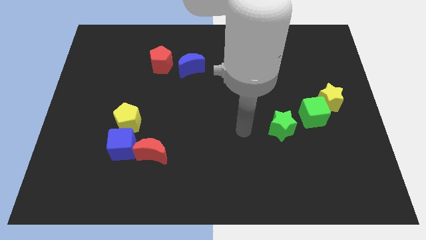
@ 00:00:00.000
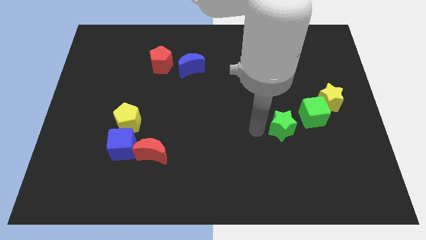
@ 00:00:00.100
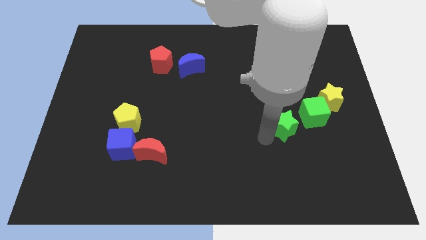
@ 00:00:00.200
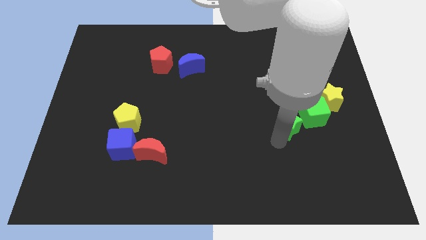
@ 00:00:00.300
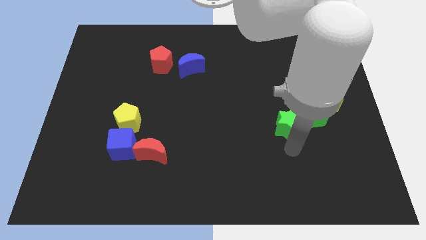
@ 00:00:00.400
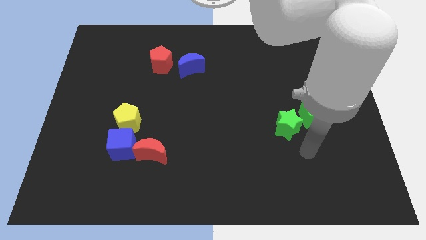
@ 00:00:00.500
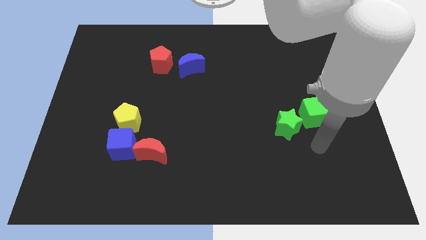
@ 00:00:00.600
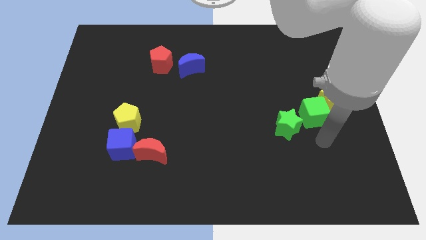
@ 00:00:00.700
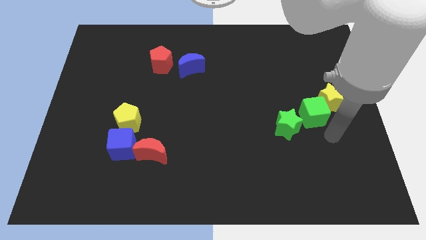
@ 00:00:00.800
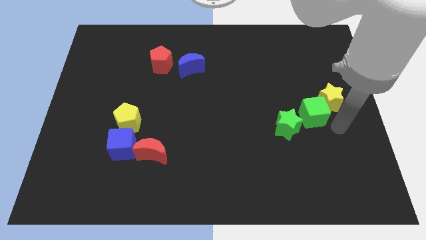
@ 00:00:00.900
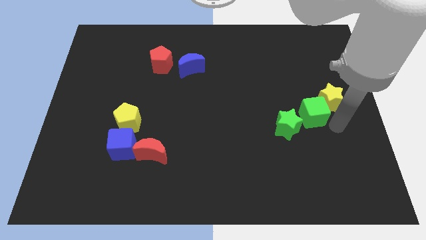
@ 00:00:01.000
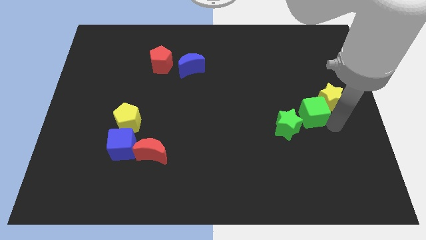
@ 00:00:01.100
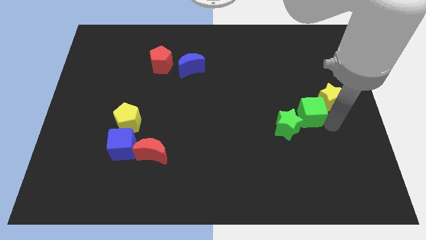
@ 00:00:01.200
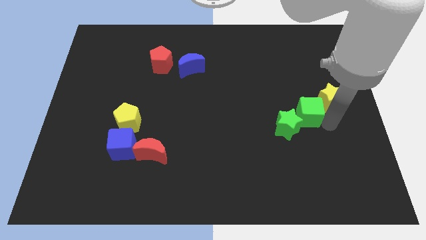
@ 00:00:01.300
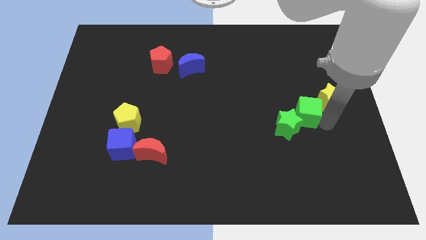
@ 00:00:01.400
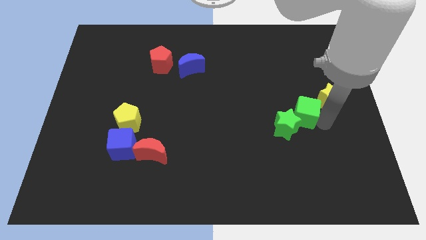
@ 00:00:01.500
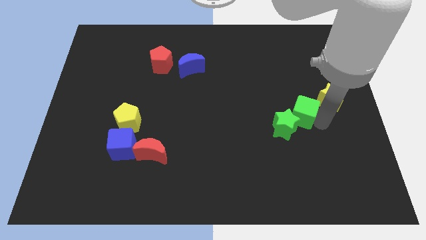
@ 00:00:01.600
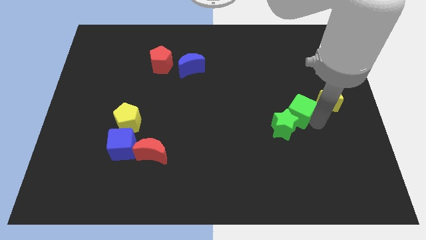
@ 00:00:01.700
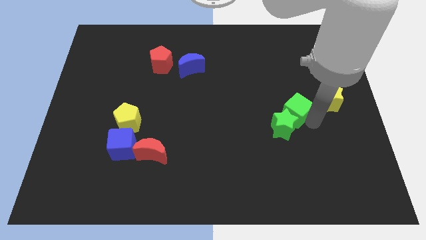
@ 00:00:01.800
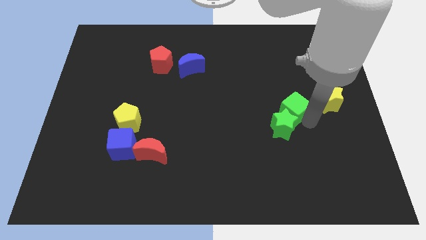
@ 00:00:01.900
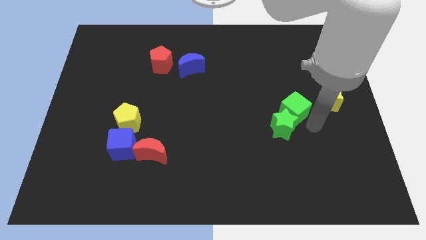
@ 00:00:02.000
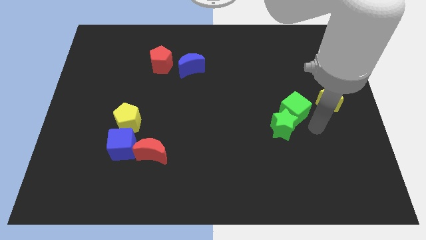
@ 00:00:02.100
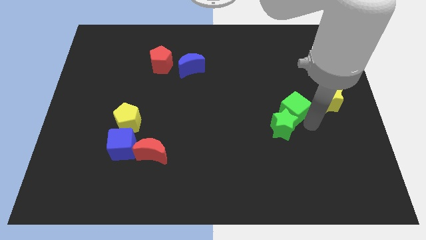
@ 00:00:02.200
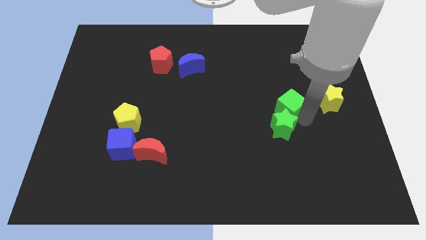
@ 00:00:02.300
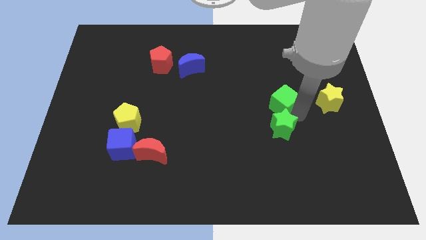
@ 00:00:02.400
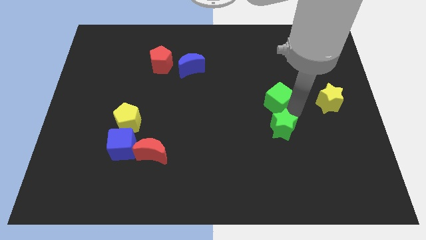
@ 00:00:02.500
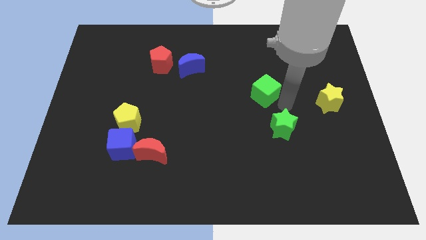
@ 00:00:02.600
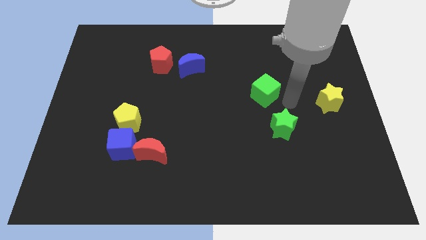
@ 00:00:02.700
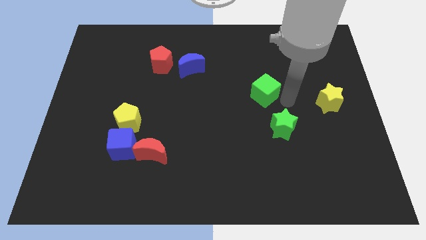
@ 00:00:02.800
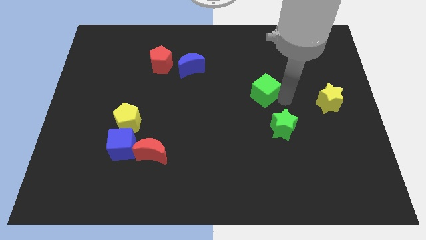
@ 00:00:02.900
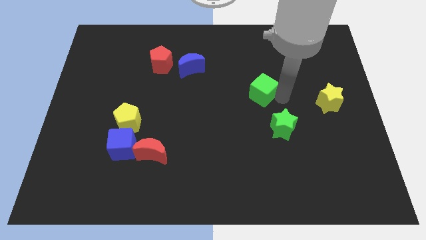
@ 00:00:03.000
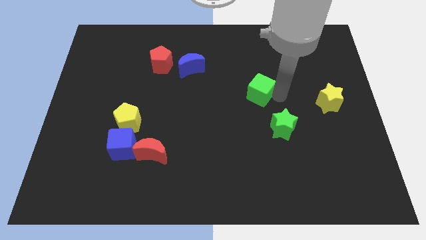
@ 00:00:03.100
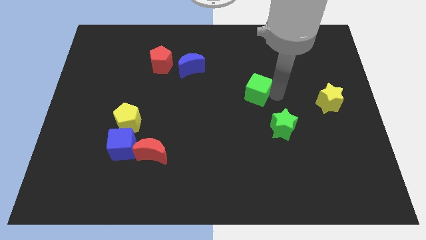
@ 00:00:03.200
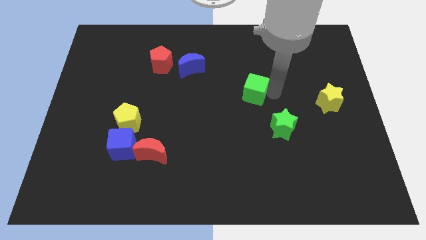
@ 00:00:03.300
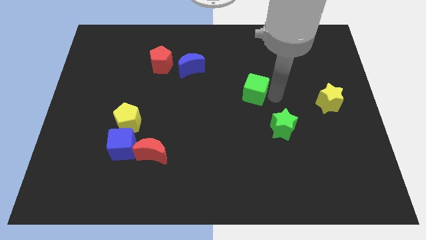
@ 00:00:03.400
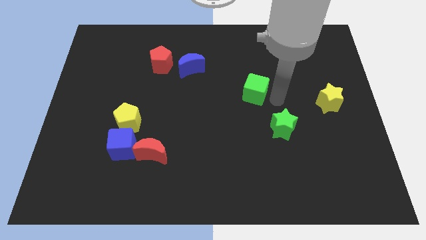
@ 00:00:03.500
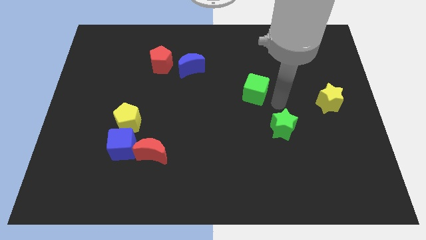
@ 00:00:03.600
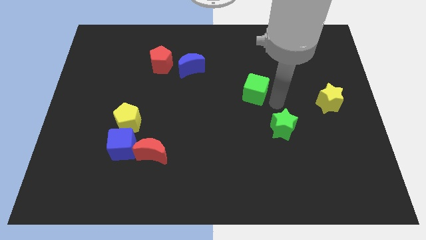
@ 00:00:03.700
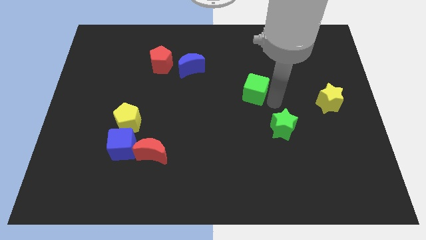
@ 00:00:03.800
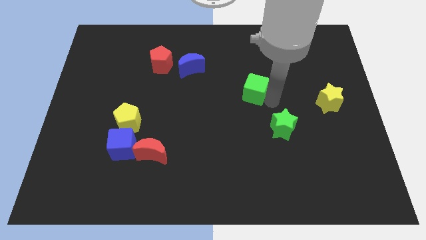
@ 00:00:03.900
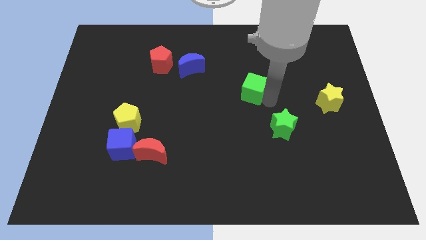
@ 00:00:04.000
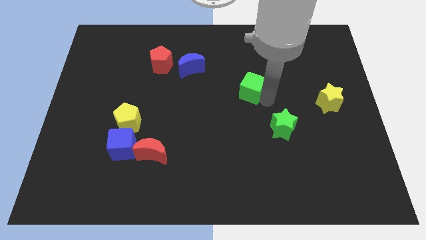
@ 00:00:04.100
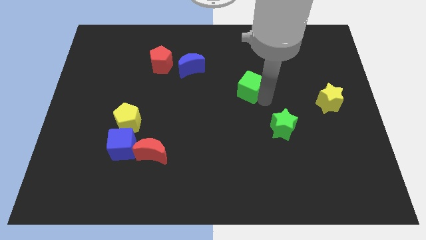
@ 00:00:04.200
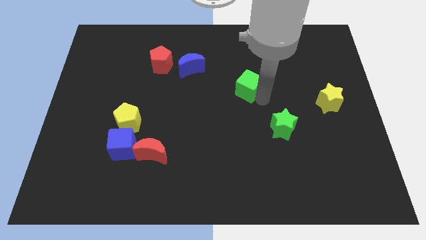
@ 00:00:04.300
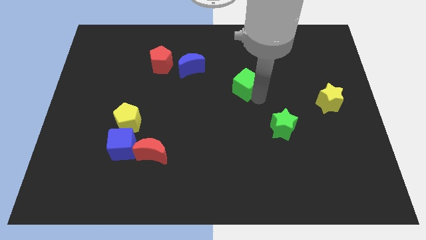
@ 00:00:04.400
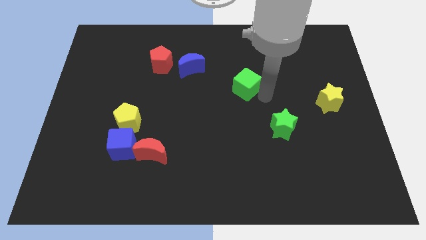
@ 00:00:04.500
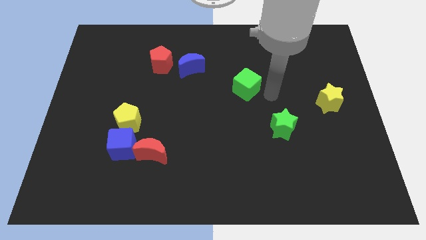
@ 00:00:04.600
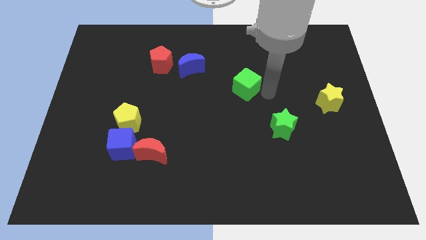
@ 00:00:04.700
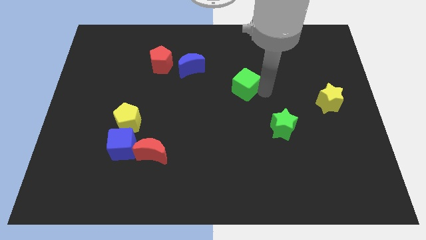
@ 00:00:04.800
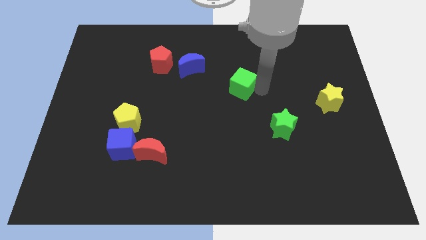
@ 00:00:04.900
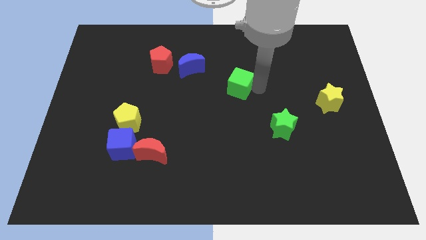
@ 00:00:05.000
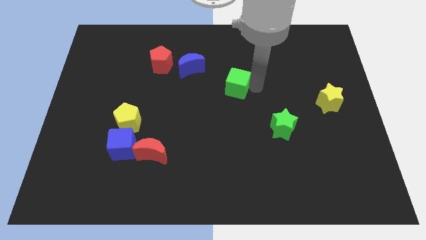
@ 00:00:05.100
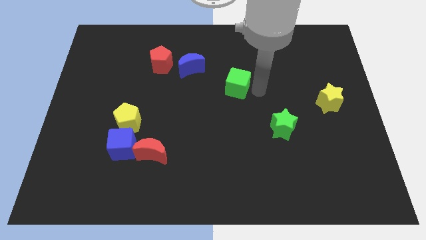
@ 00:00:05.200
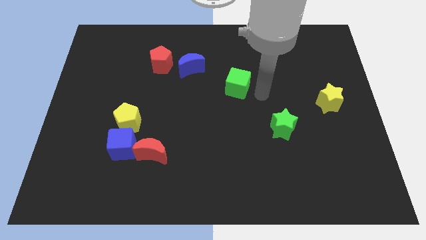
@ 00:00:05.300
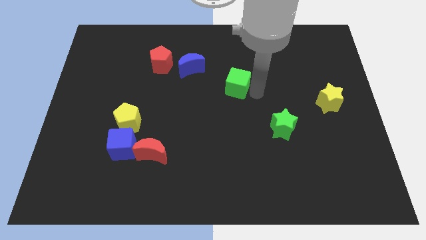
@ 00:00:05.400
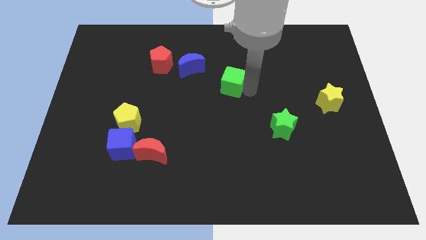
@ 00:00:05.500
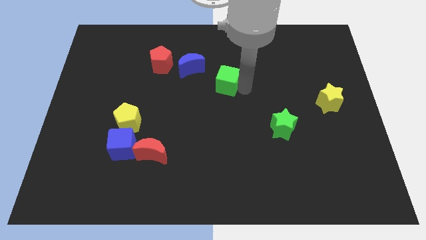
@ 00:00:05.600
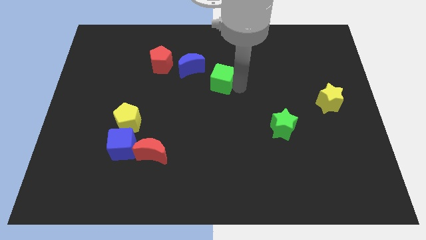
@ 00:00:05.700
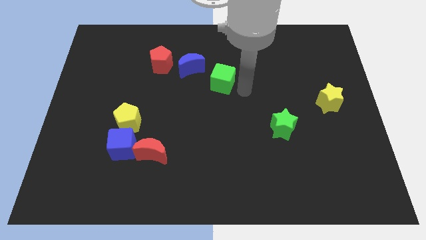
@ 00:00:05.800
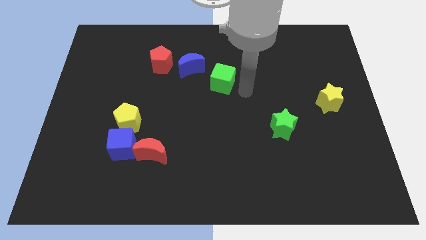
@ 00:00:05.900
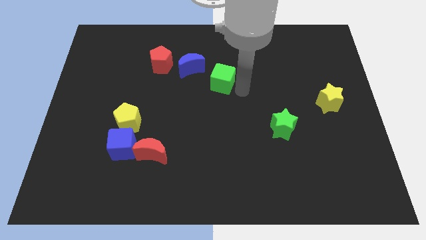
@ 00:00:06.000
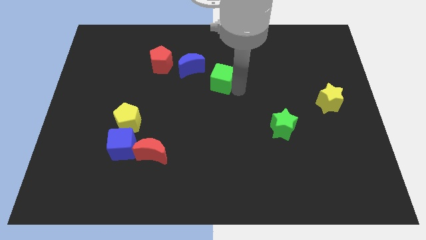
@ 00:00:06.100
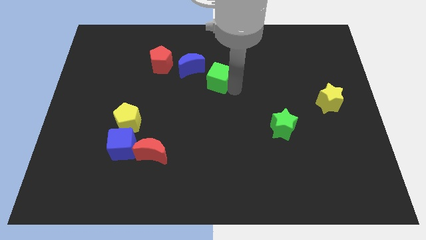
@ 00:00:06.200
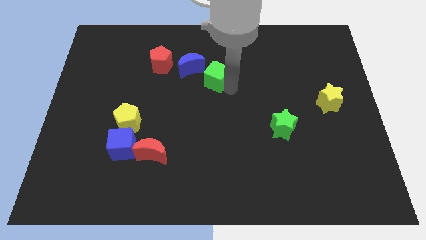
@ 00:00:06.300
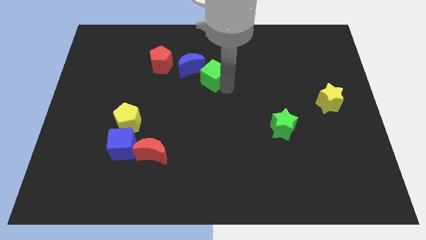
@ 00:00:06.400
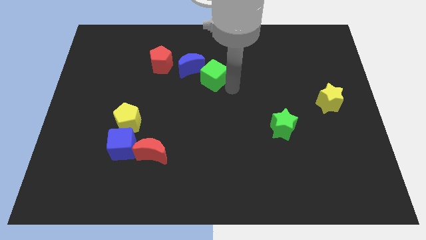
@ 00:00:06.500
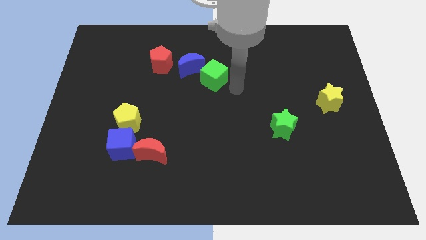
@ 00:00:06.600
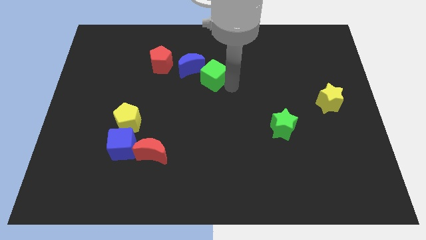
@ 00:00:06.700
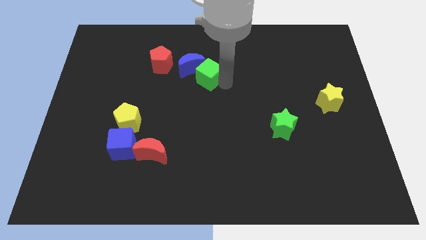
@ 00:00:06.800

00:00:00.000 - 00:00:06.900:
push the green cube close to the blue moon
